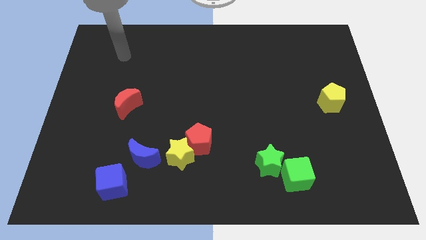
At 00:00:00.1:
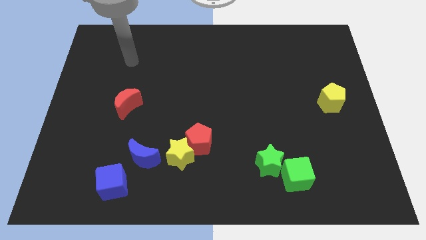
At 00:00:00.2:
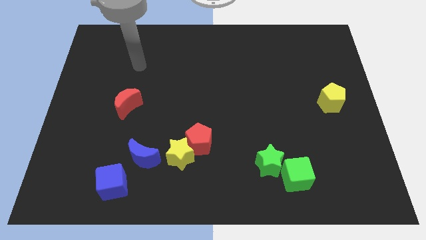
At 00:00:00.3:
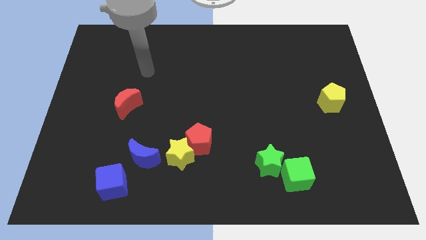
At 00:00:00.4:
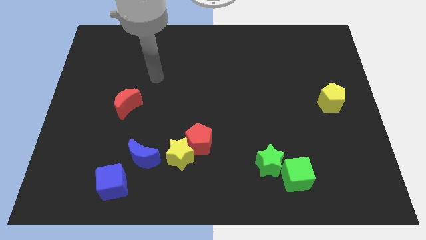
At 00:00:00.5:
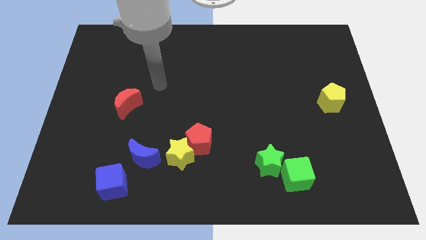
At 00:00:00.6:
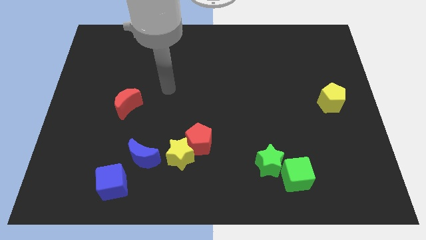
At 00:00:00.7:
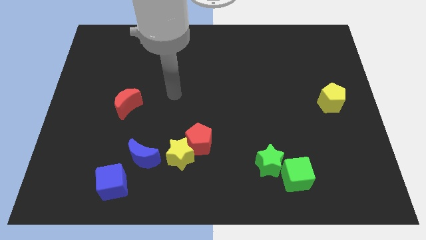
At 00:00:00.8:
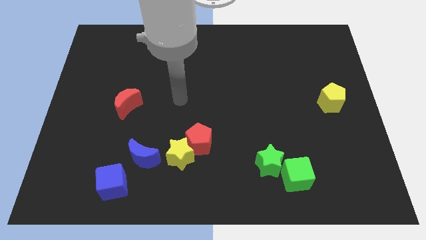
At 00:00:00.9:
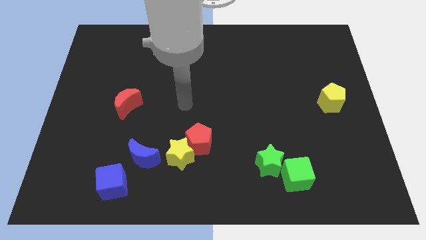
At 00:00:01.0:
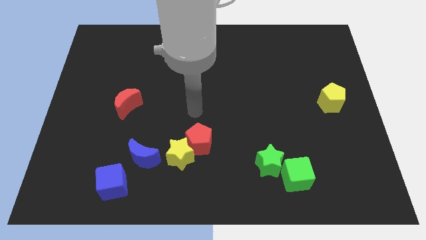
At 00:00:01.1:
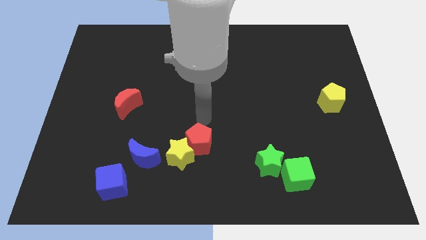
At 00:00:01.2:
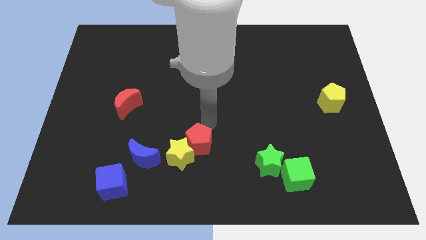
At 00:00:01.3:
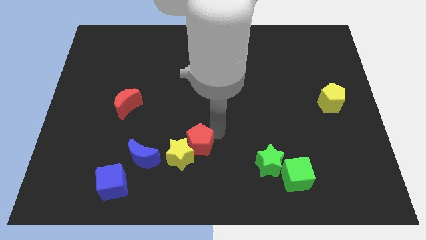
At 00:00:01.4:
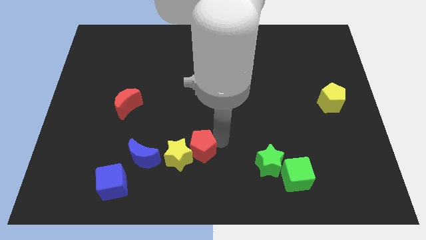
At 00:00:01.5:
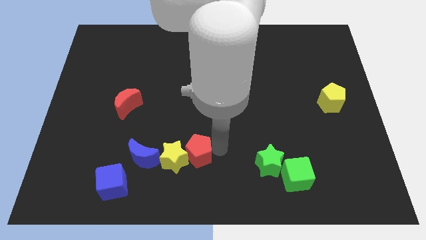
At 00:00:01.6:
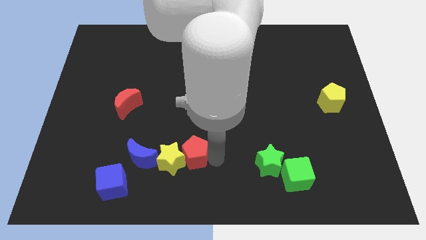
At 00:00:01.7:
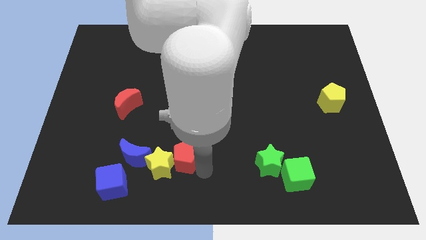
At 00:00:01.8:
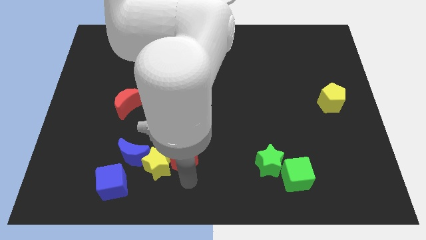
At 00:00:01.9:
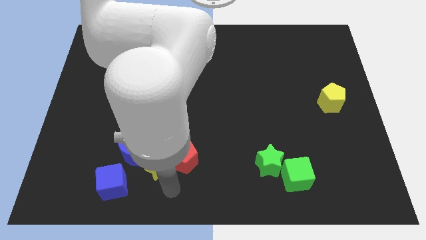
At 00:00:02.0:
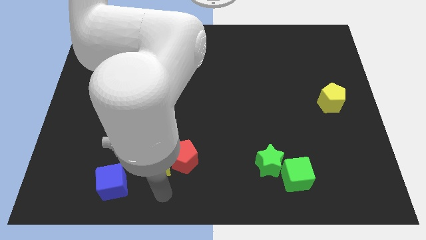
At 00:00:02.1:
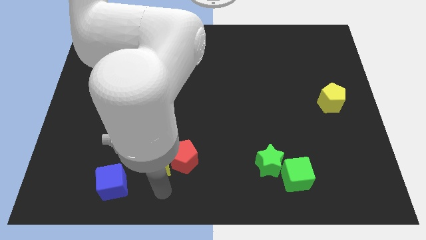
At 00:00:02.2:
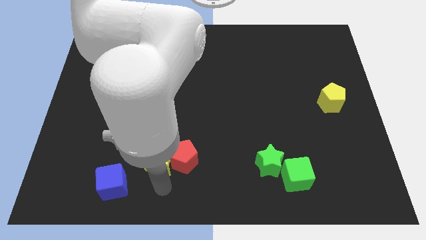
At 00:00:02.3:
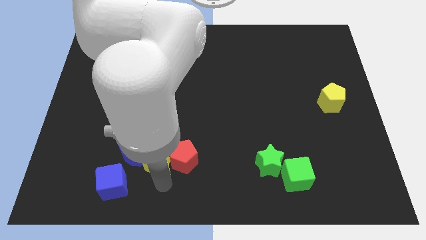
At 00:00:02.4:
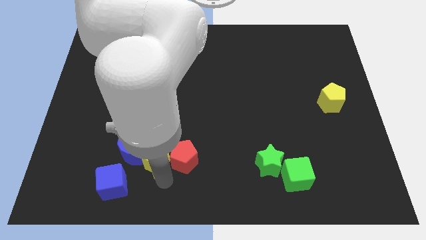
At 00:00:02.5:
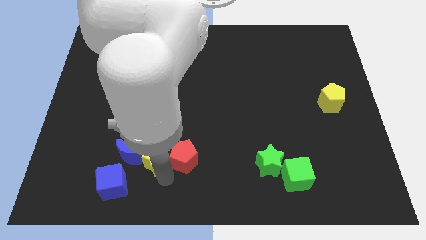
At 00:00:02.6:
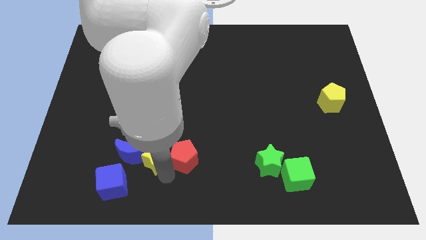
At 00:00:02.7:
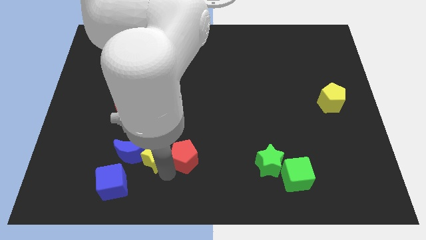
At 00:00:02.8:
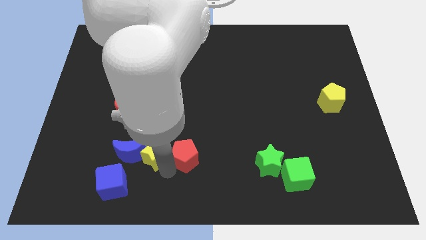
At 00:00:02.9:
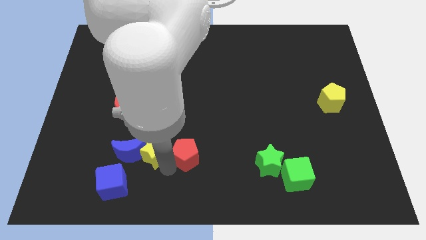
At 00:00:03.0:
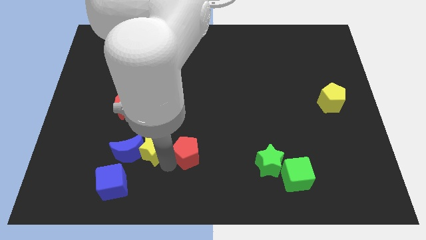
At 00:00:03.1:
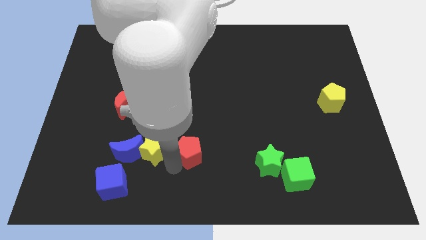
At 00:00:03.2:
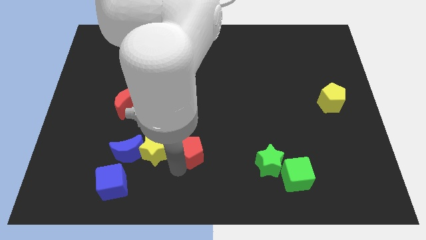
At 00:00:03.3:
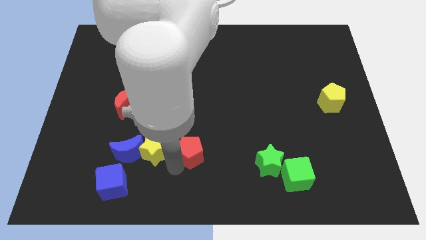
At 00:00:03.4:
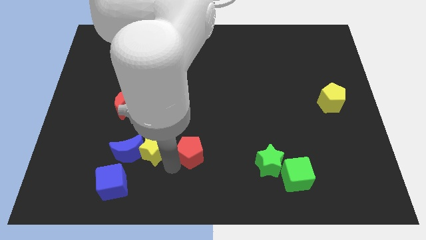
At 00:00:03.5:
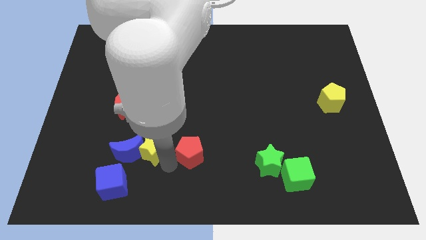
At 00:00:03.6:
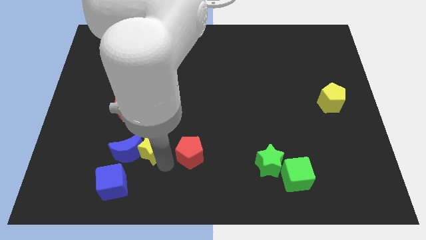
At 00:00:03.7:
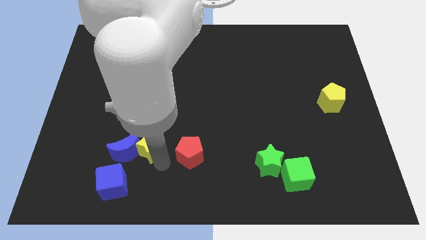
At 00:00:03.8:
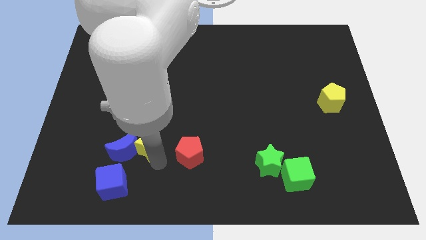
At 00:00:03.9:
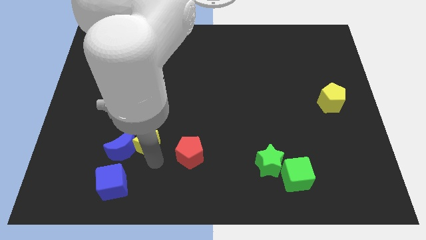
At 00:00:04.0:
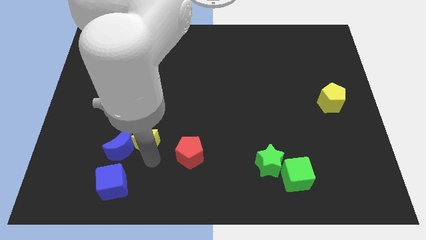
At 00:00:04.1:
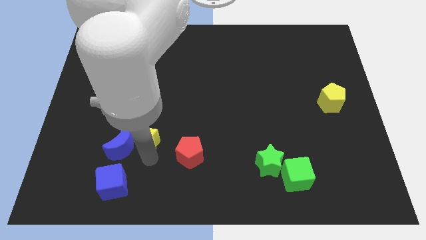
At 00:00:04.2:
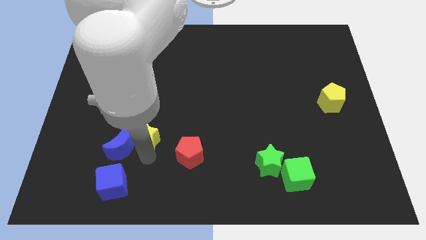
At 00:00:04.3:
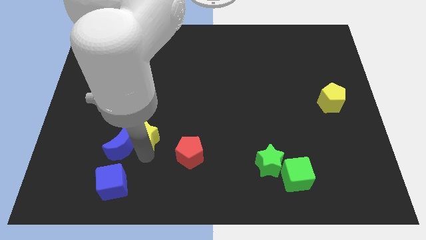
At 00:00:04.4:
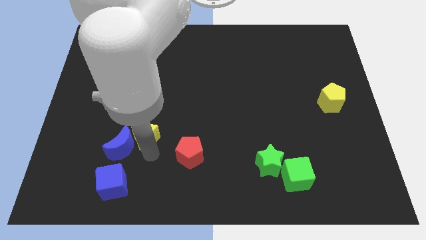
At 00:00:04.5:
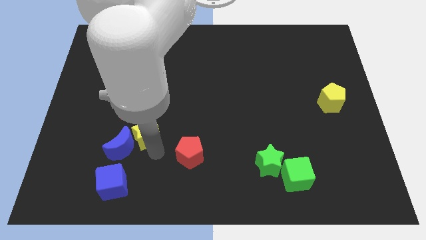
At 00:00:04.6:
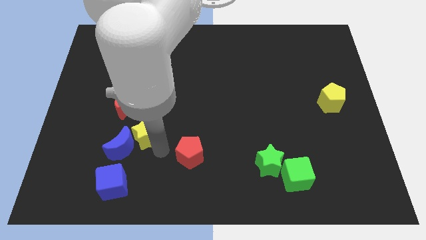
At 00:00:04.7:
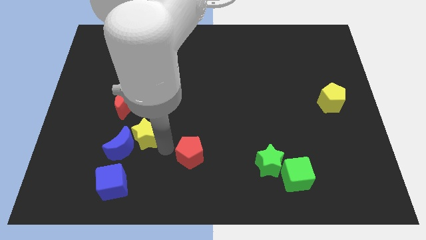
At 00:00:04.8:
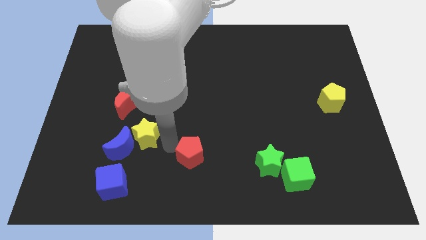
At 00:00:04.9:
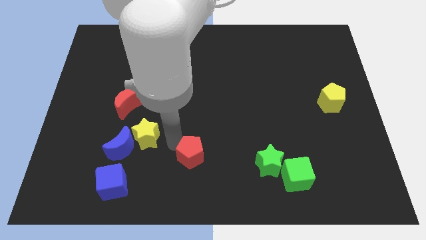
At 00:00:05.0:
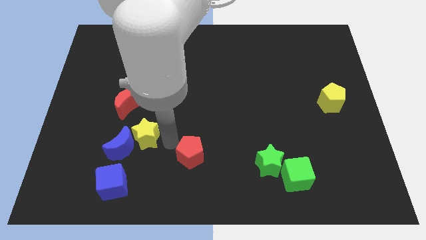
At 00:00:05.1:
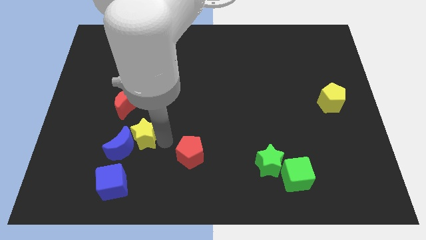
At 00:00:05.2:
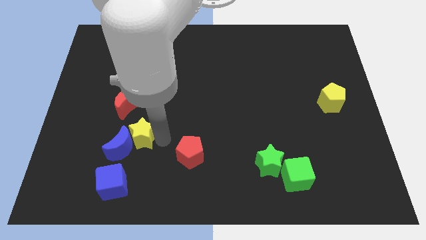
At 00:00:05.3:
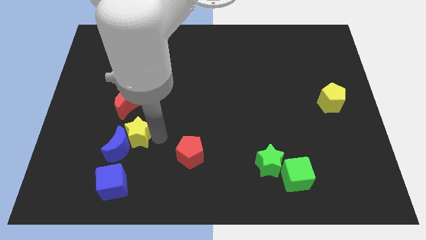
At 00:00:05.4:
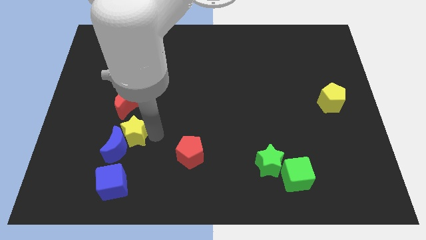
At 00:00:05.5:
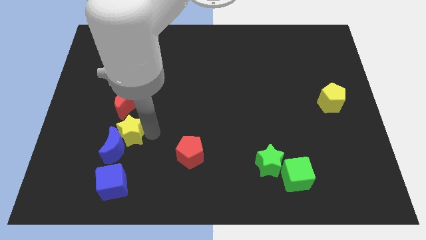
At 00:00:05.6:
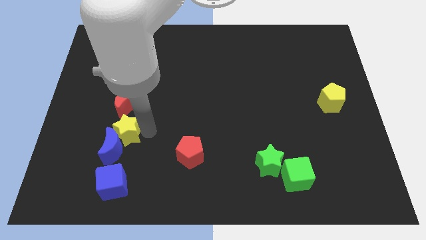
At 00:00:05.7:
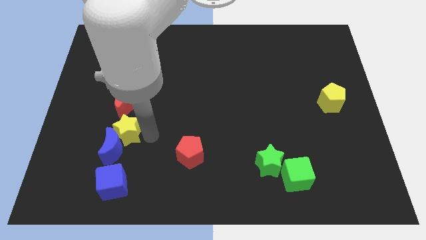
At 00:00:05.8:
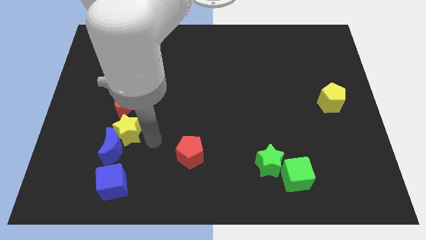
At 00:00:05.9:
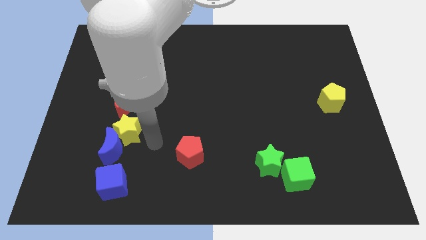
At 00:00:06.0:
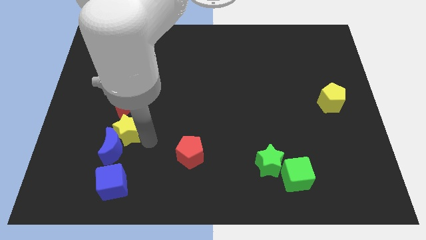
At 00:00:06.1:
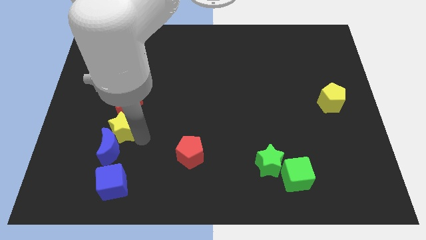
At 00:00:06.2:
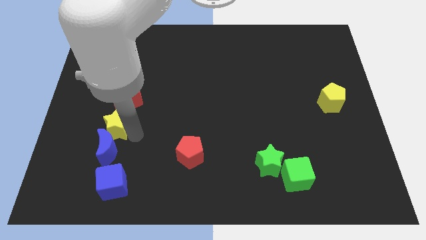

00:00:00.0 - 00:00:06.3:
put the yellow star to the bottom left side of the red moon

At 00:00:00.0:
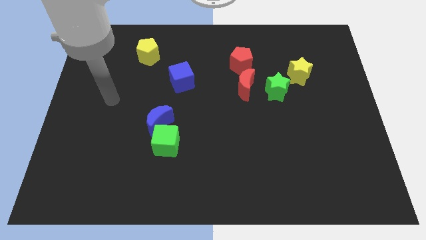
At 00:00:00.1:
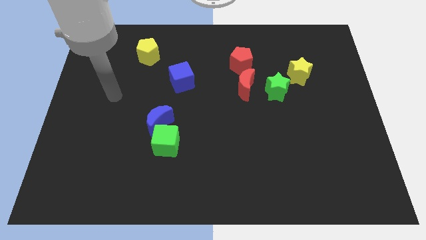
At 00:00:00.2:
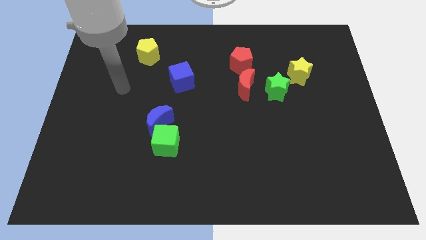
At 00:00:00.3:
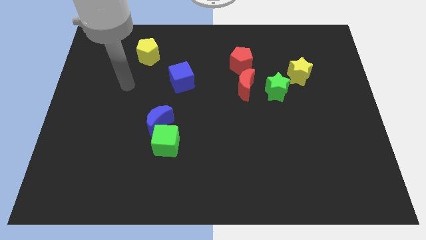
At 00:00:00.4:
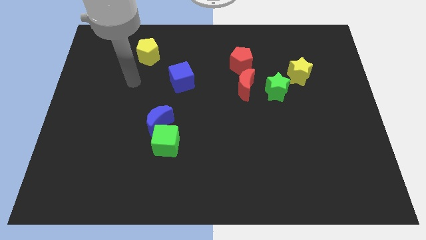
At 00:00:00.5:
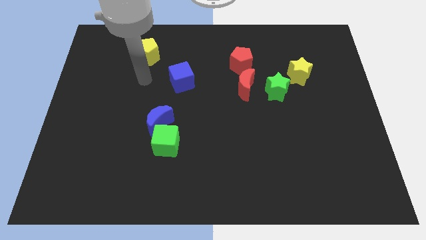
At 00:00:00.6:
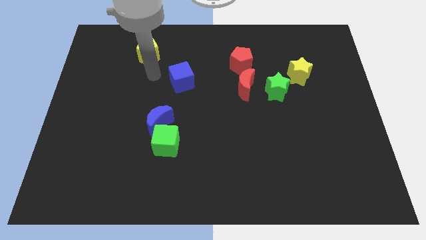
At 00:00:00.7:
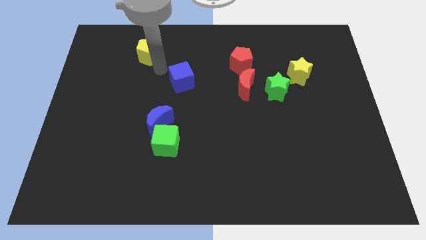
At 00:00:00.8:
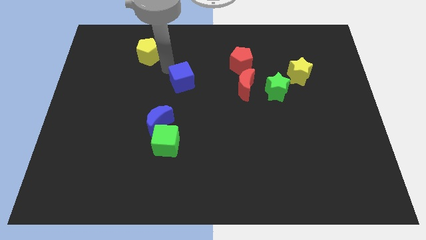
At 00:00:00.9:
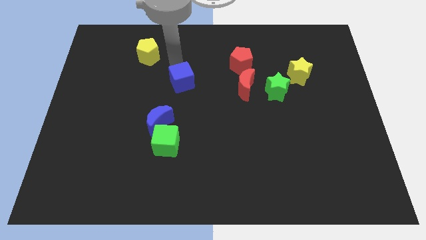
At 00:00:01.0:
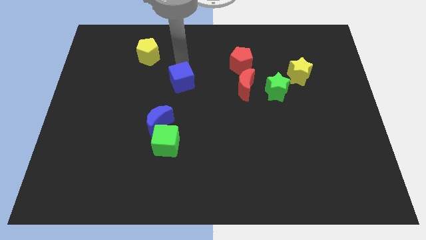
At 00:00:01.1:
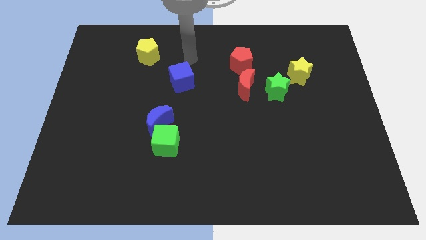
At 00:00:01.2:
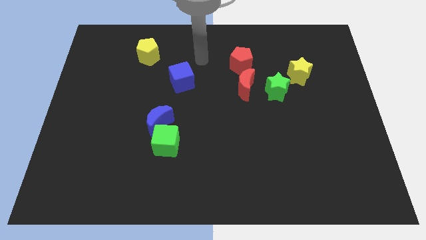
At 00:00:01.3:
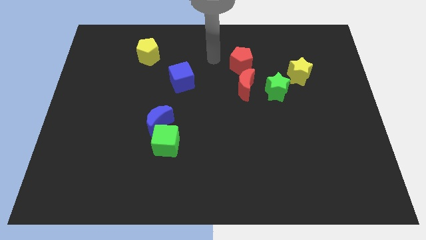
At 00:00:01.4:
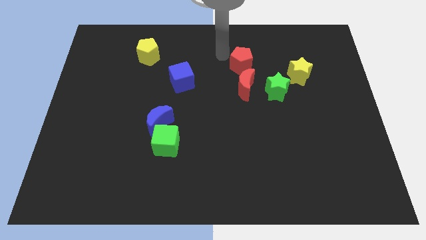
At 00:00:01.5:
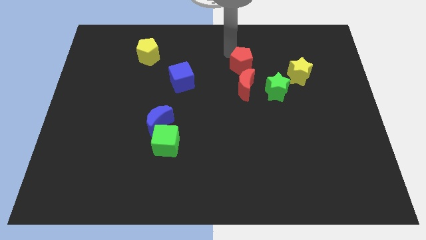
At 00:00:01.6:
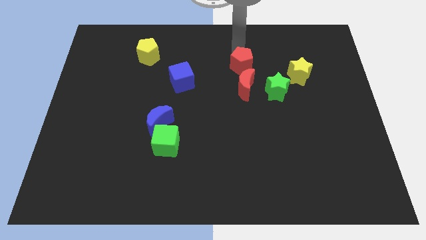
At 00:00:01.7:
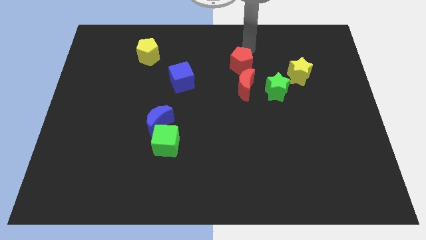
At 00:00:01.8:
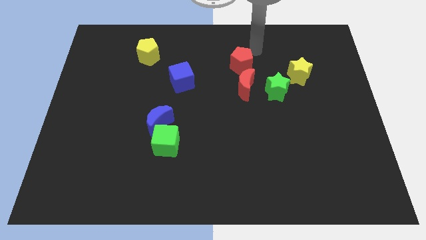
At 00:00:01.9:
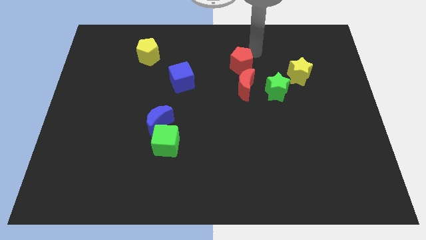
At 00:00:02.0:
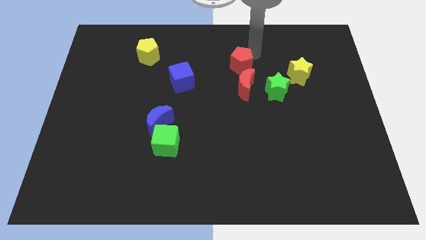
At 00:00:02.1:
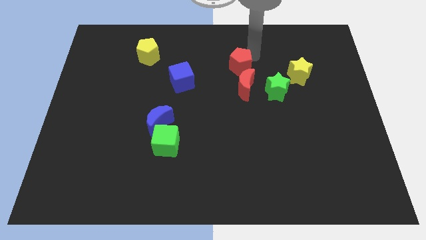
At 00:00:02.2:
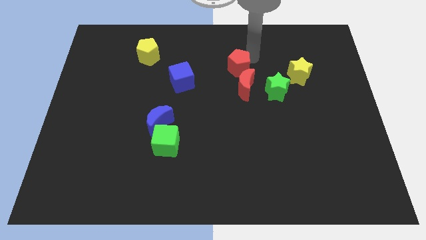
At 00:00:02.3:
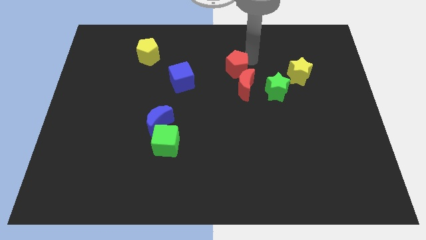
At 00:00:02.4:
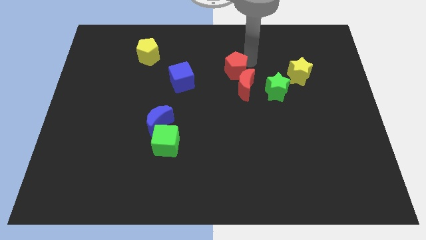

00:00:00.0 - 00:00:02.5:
move the red pentagon just right of the blue cube
